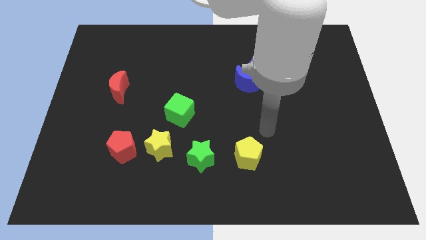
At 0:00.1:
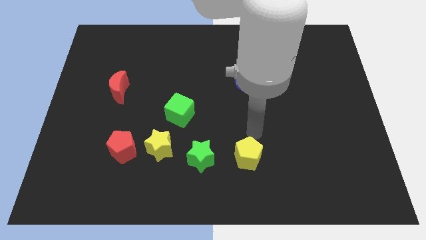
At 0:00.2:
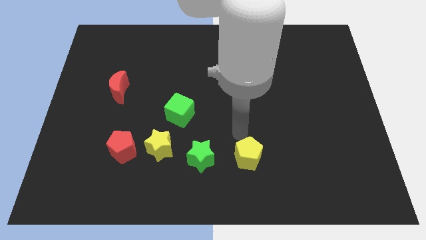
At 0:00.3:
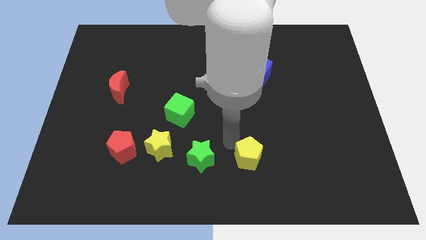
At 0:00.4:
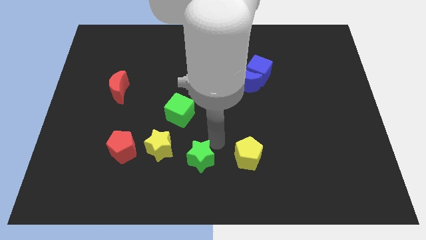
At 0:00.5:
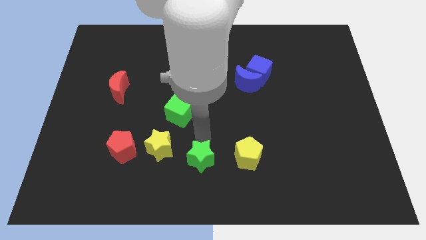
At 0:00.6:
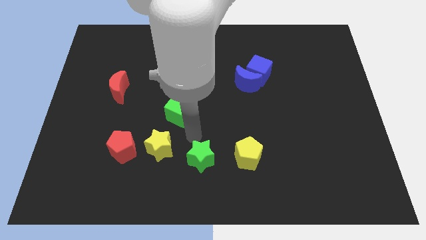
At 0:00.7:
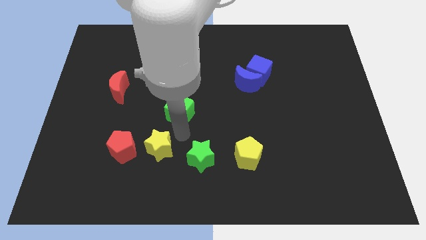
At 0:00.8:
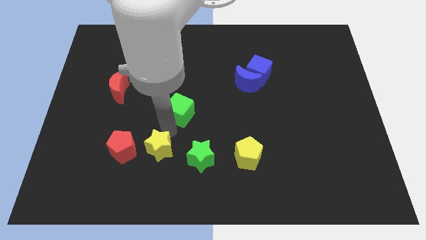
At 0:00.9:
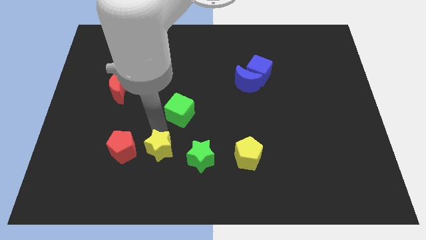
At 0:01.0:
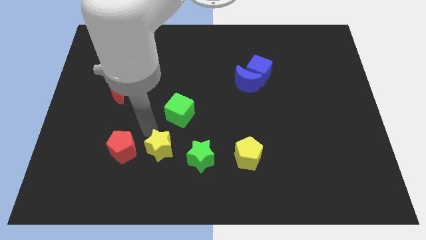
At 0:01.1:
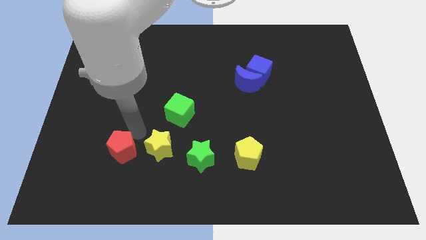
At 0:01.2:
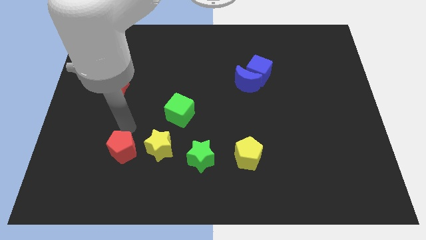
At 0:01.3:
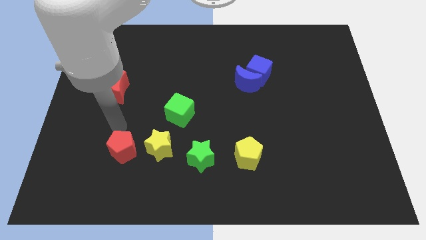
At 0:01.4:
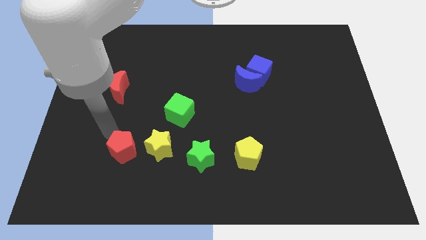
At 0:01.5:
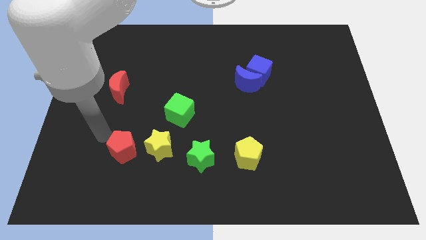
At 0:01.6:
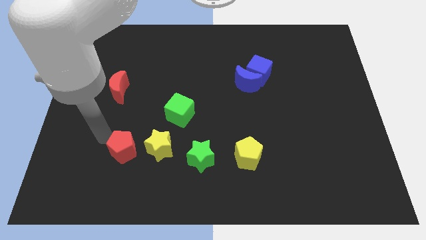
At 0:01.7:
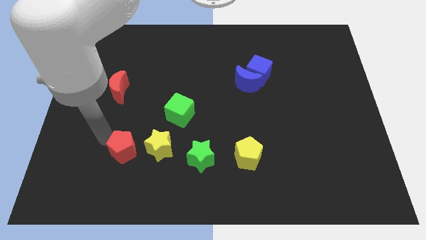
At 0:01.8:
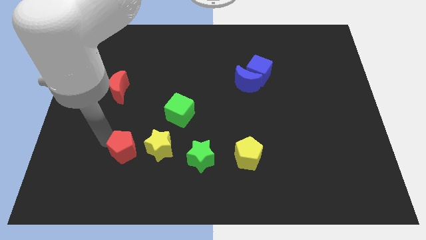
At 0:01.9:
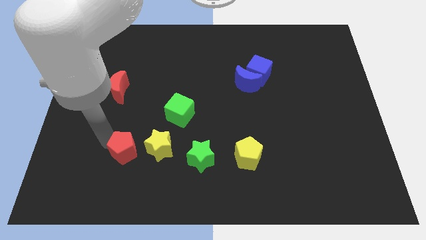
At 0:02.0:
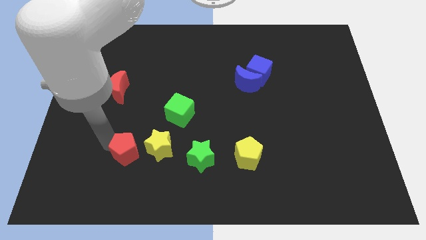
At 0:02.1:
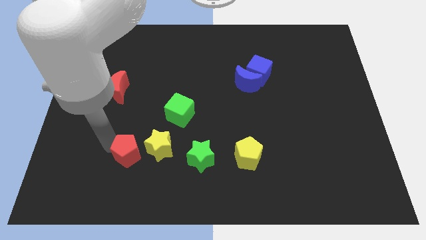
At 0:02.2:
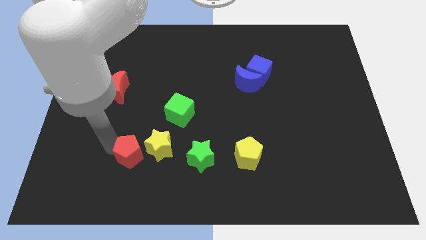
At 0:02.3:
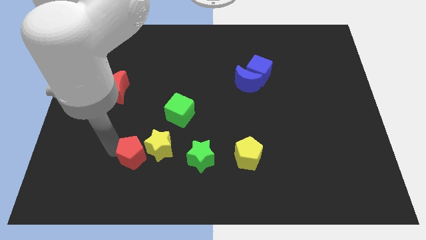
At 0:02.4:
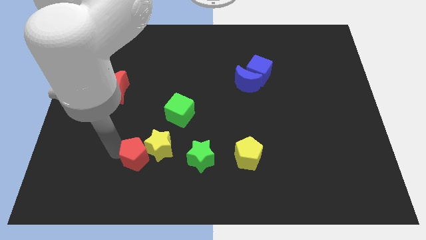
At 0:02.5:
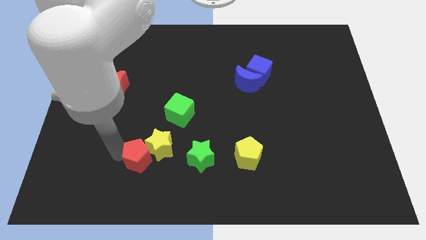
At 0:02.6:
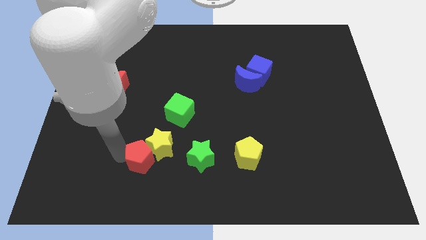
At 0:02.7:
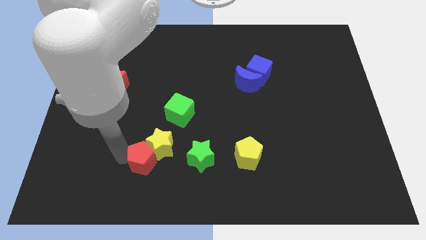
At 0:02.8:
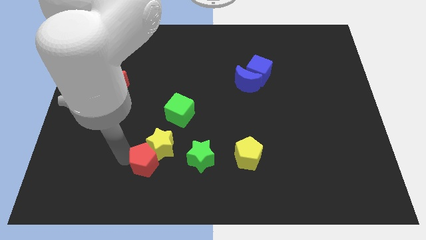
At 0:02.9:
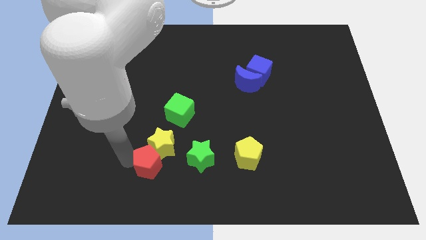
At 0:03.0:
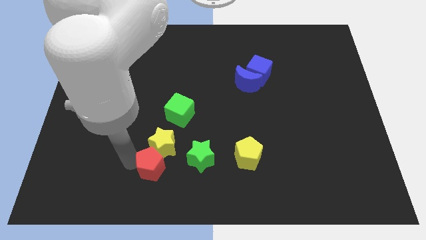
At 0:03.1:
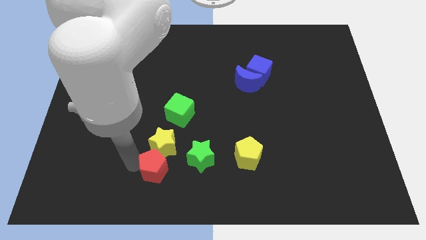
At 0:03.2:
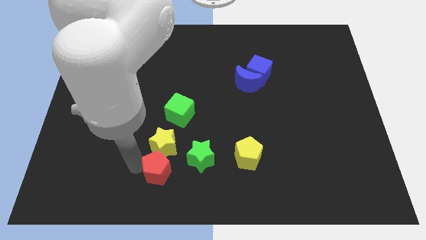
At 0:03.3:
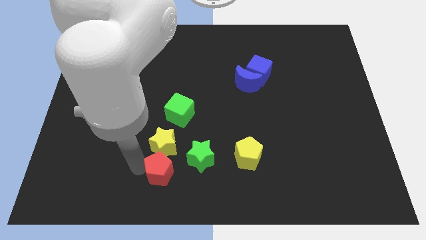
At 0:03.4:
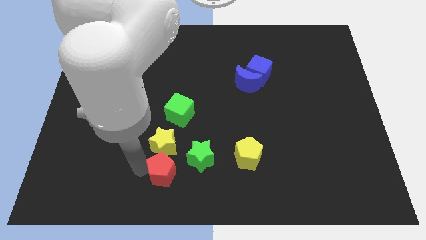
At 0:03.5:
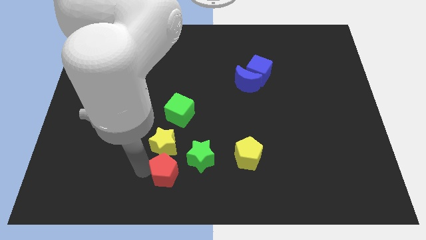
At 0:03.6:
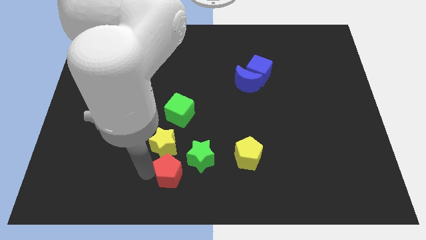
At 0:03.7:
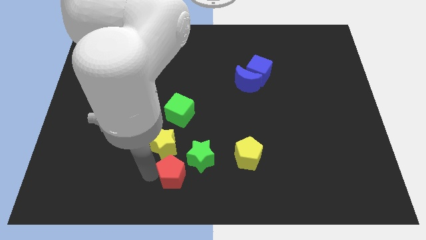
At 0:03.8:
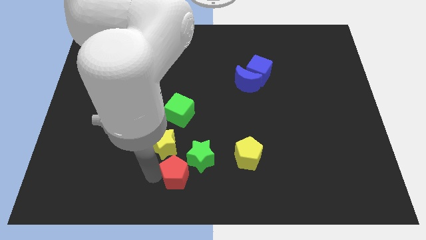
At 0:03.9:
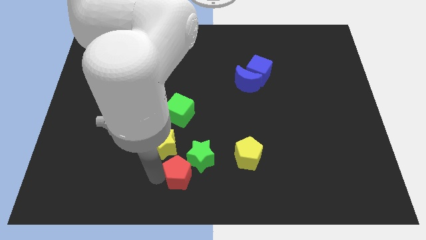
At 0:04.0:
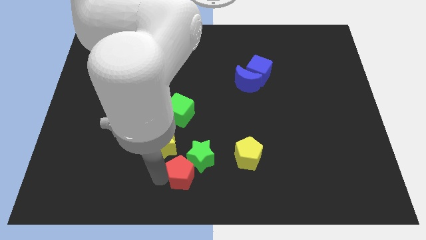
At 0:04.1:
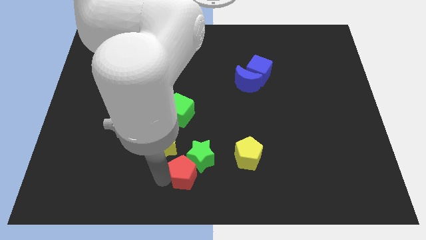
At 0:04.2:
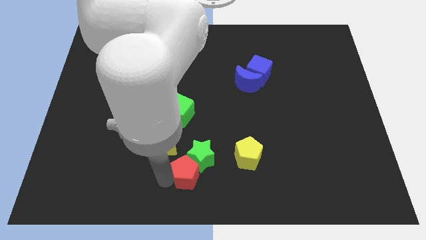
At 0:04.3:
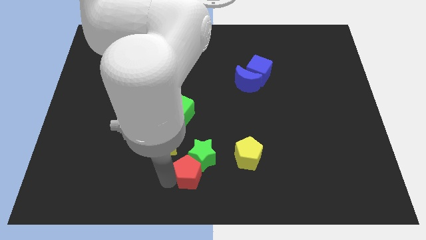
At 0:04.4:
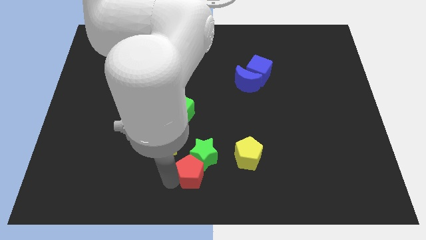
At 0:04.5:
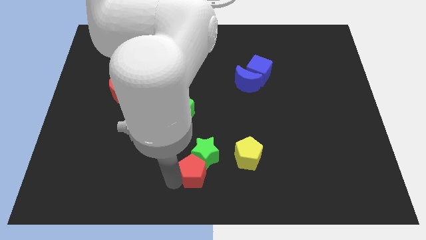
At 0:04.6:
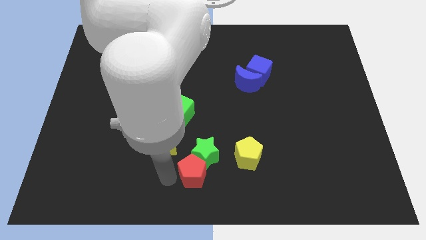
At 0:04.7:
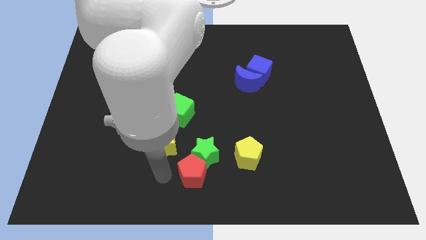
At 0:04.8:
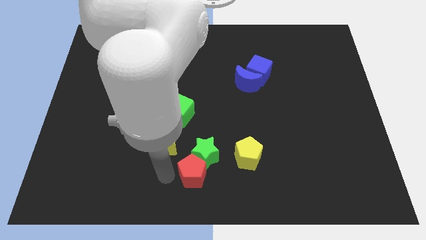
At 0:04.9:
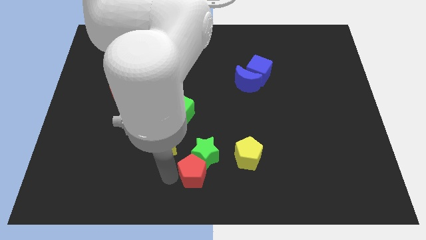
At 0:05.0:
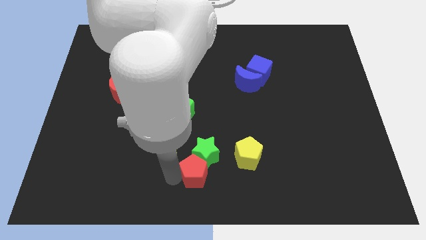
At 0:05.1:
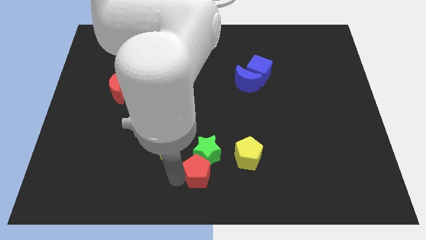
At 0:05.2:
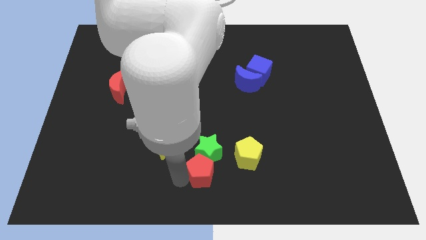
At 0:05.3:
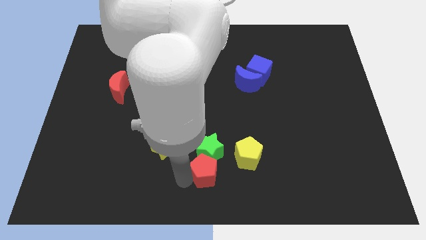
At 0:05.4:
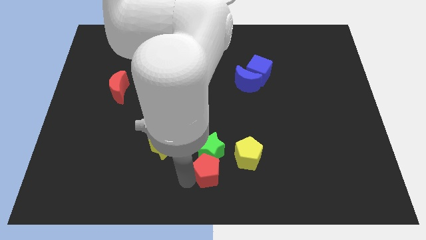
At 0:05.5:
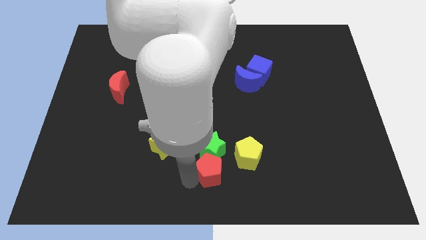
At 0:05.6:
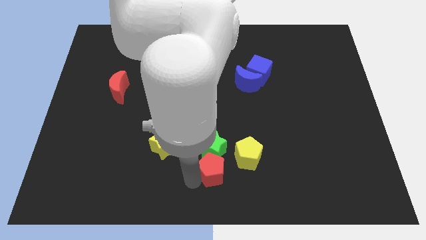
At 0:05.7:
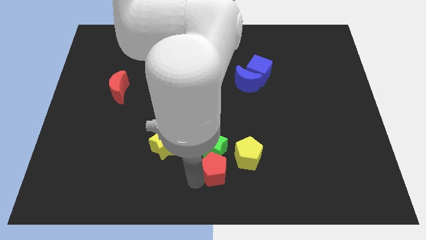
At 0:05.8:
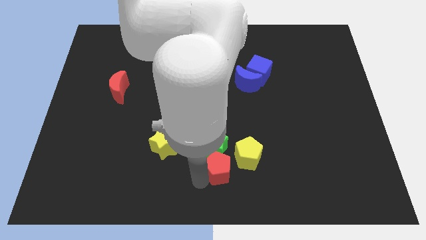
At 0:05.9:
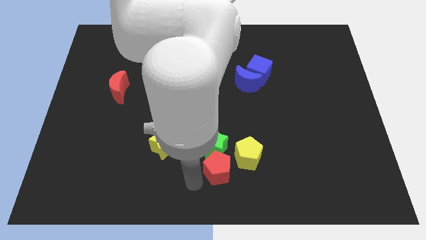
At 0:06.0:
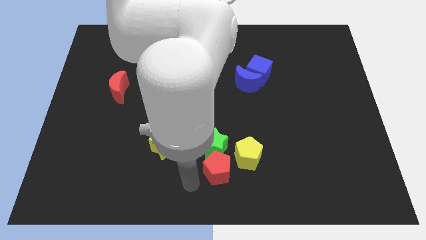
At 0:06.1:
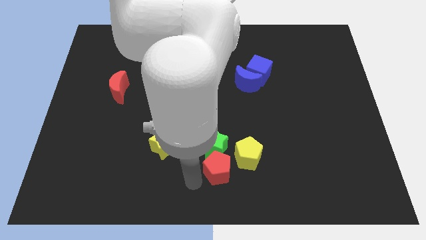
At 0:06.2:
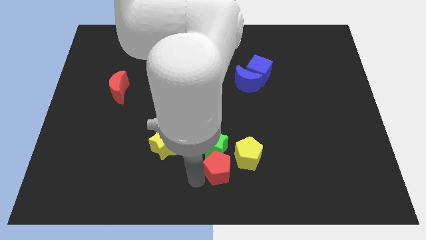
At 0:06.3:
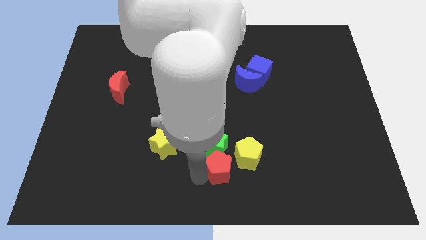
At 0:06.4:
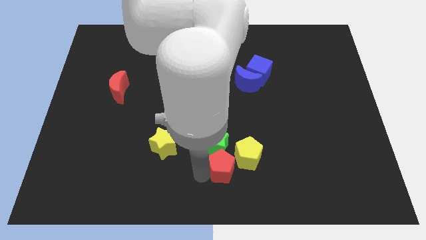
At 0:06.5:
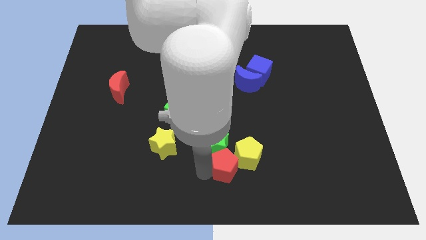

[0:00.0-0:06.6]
move the red pentagon close to the yellow pentagon

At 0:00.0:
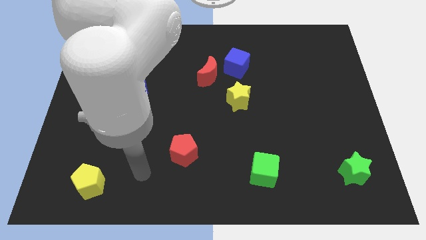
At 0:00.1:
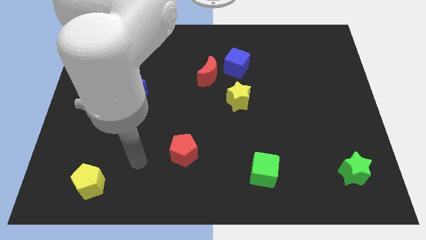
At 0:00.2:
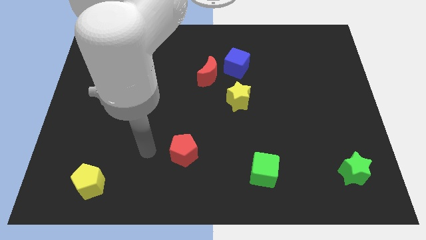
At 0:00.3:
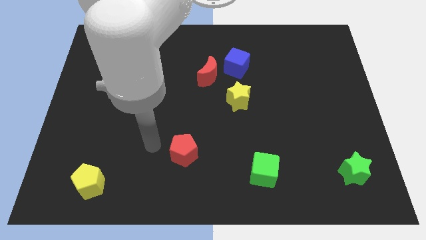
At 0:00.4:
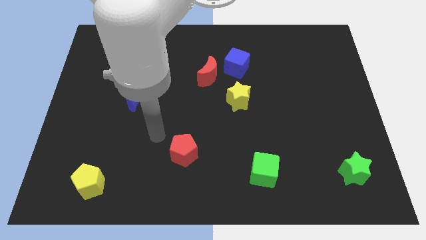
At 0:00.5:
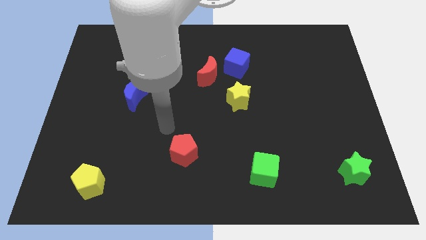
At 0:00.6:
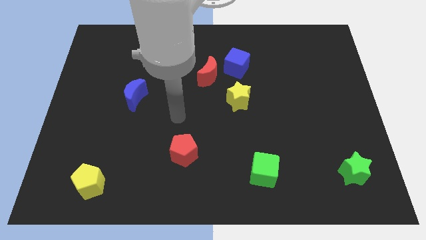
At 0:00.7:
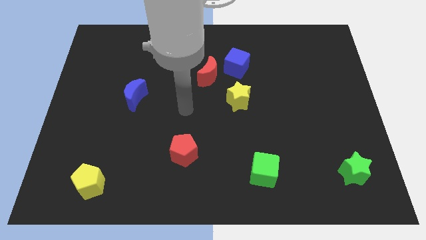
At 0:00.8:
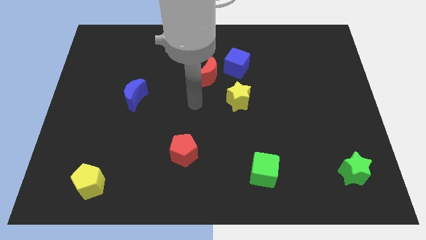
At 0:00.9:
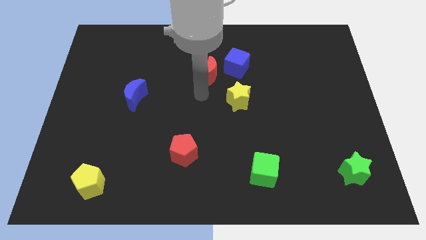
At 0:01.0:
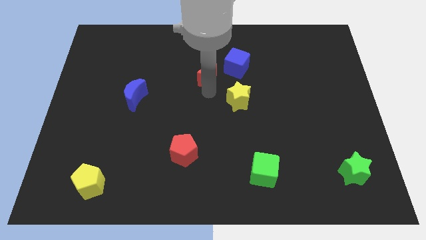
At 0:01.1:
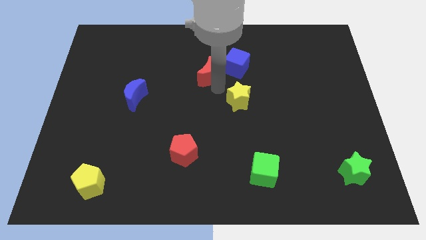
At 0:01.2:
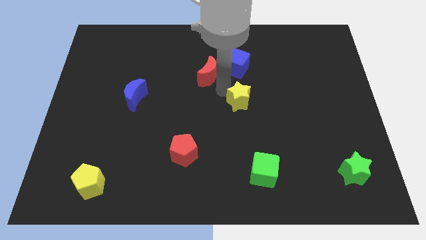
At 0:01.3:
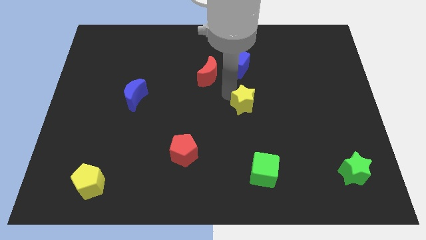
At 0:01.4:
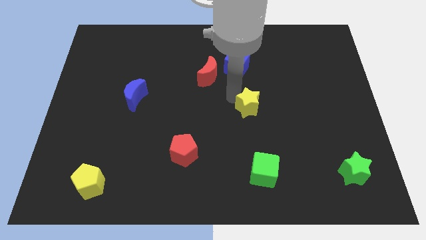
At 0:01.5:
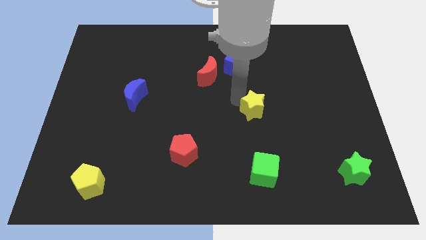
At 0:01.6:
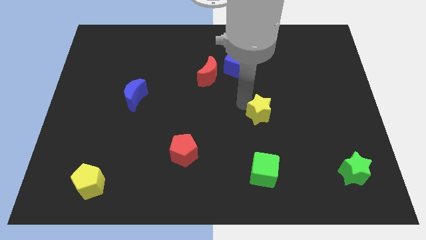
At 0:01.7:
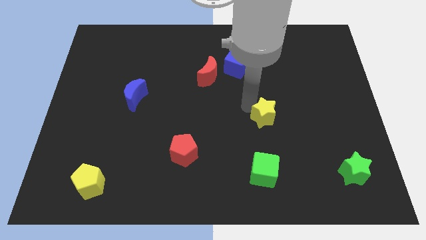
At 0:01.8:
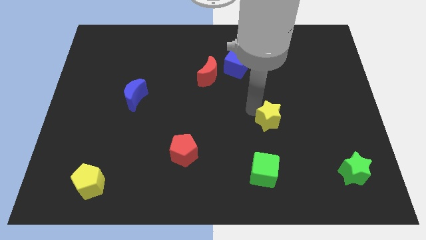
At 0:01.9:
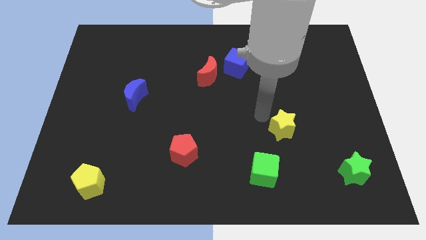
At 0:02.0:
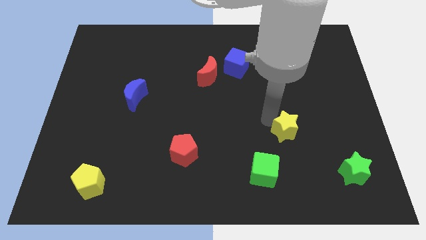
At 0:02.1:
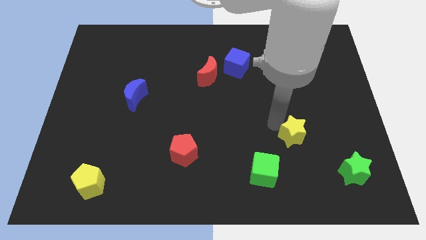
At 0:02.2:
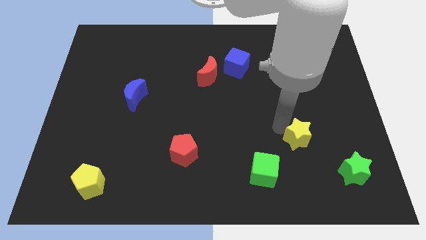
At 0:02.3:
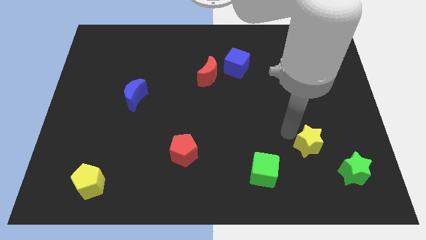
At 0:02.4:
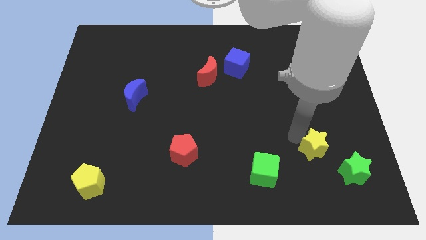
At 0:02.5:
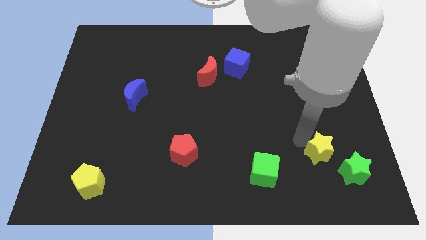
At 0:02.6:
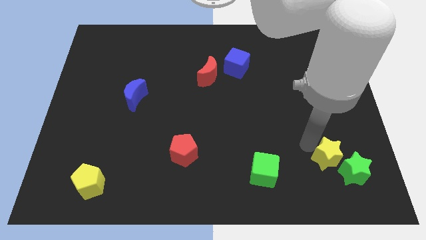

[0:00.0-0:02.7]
put the yellow star to the green star
